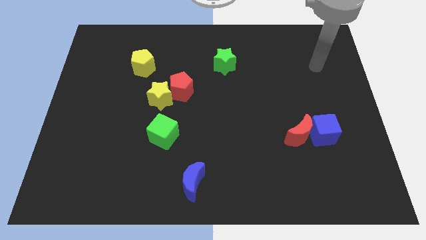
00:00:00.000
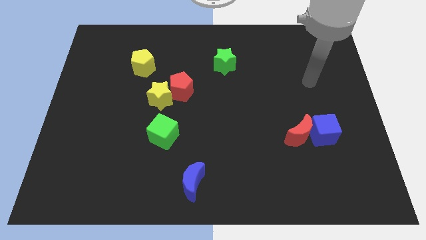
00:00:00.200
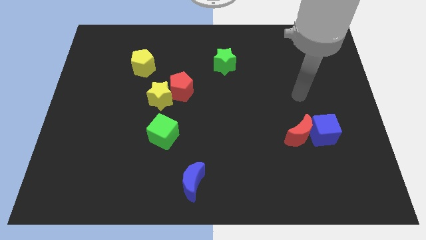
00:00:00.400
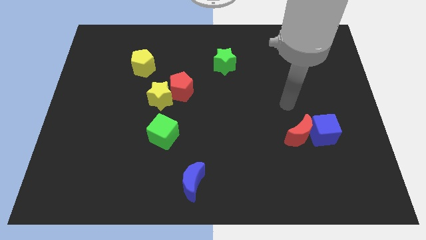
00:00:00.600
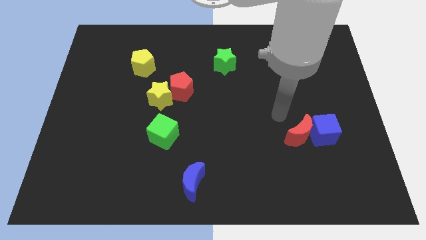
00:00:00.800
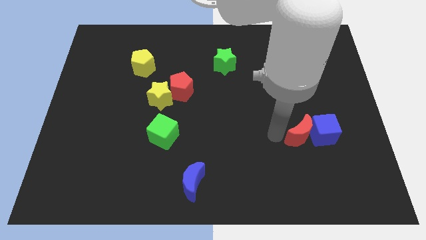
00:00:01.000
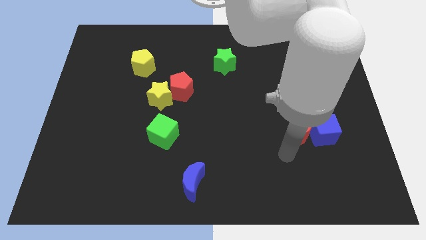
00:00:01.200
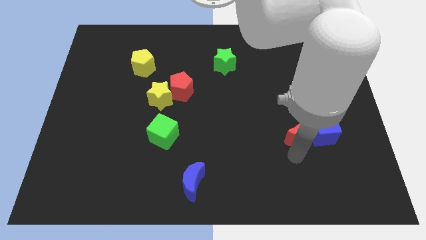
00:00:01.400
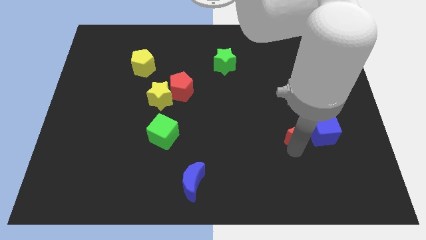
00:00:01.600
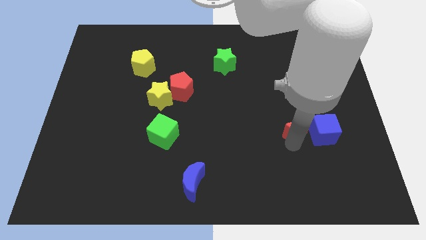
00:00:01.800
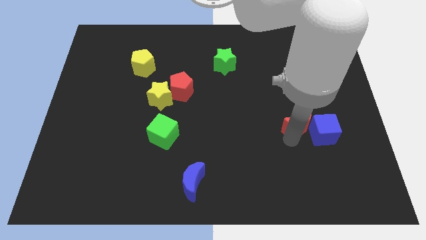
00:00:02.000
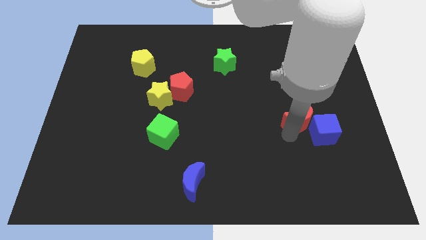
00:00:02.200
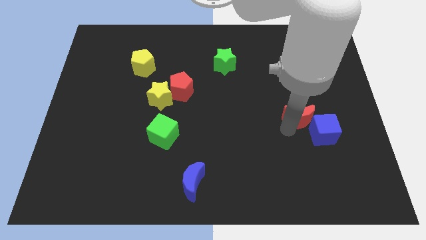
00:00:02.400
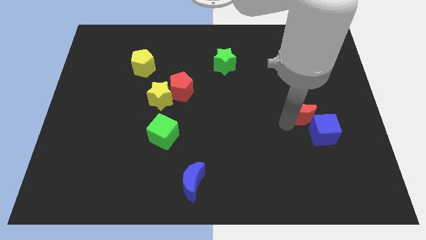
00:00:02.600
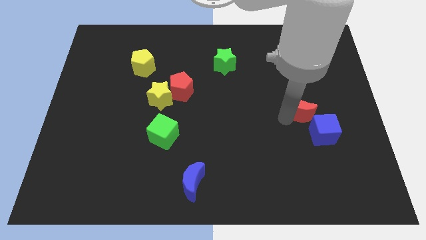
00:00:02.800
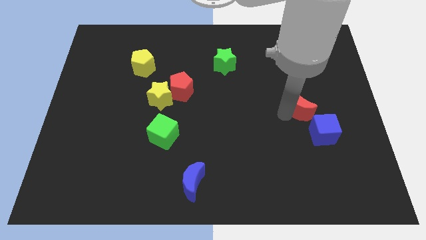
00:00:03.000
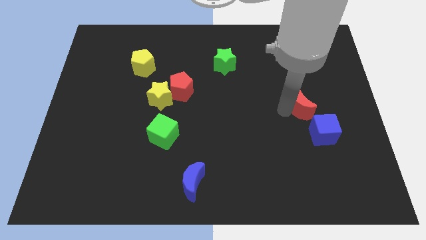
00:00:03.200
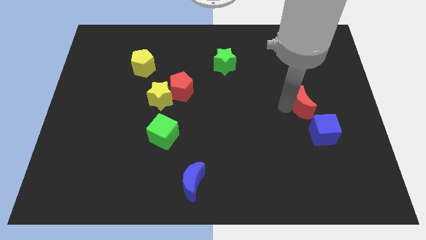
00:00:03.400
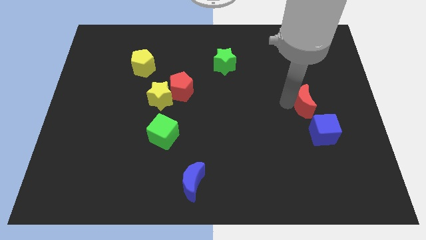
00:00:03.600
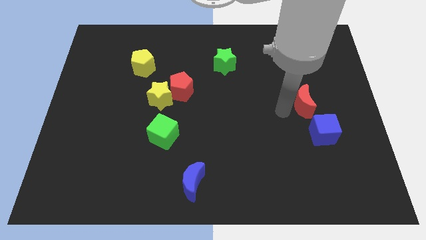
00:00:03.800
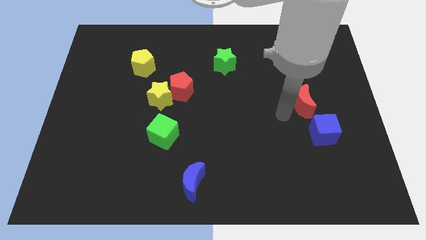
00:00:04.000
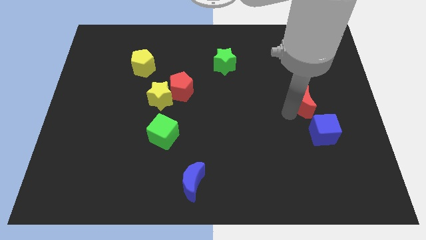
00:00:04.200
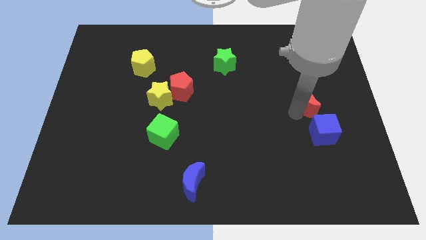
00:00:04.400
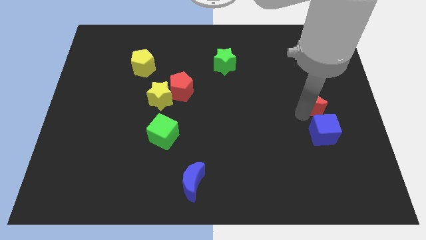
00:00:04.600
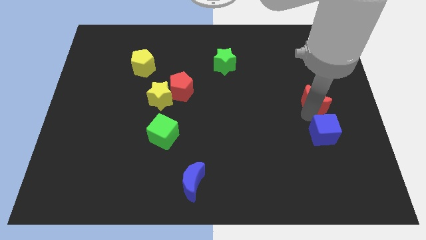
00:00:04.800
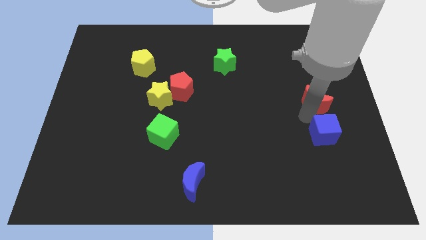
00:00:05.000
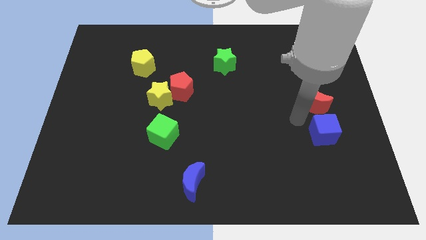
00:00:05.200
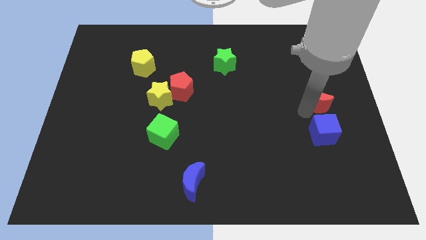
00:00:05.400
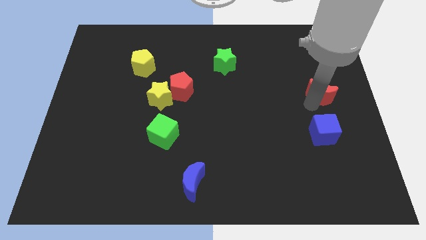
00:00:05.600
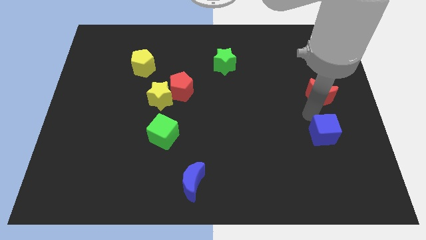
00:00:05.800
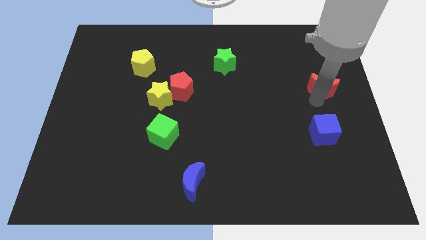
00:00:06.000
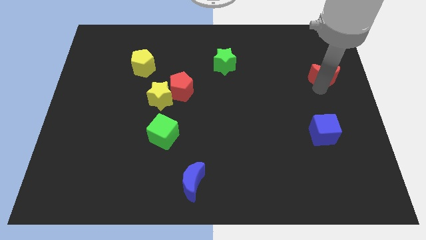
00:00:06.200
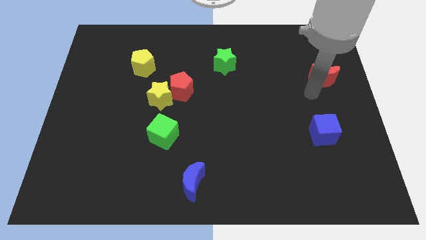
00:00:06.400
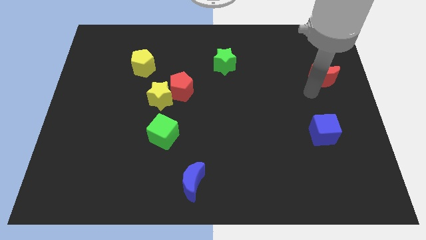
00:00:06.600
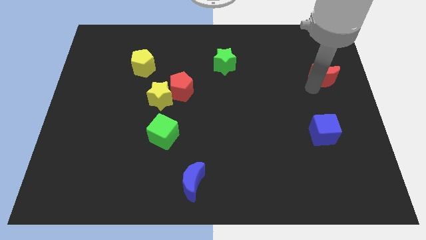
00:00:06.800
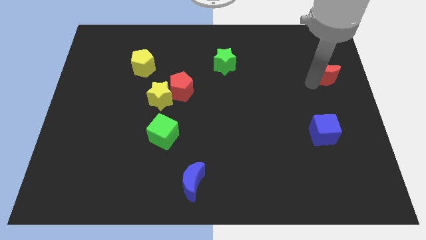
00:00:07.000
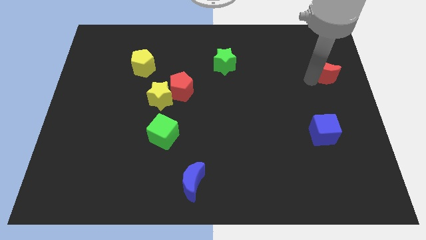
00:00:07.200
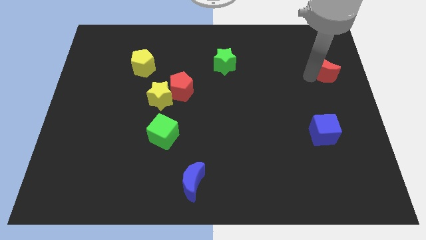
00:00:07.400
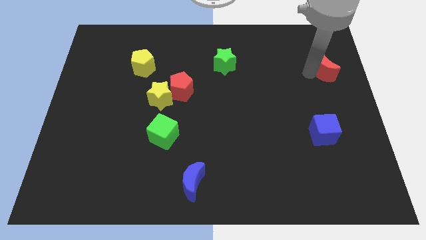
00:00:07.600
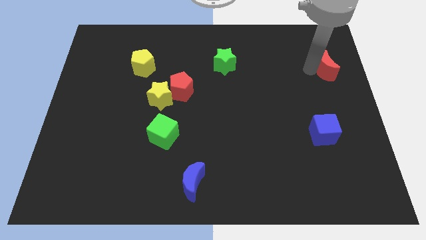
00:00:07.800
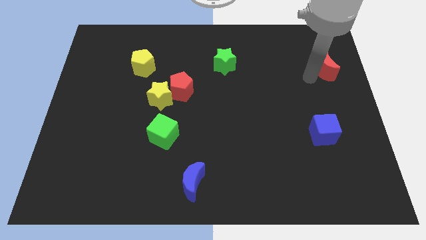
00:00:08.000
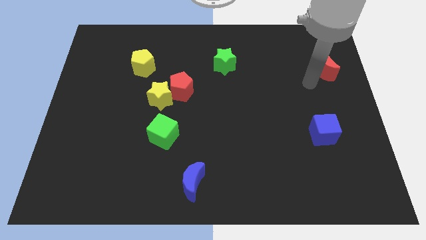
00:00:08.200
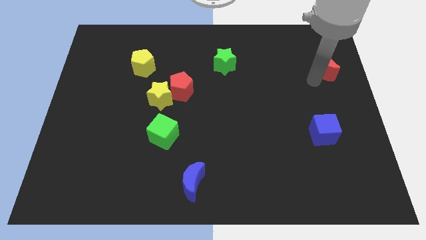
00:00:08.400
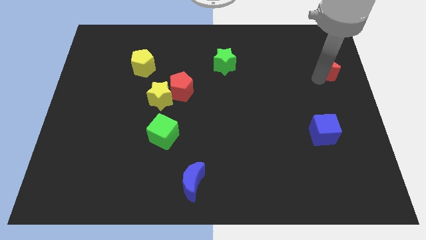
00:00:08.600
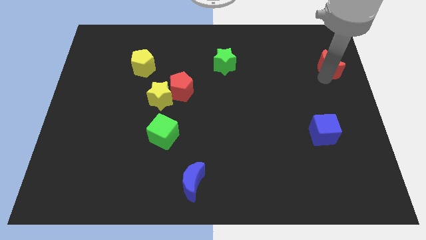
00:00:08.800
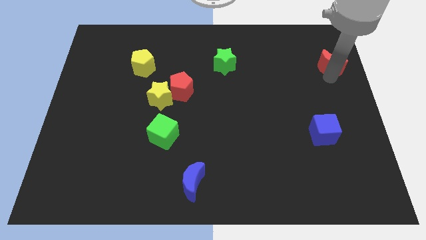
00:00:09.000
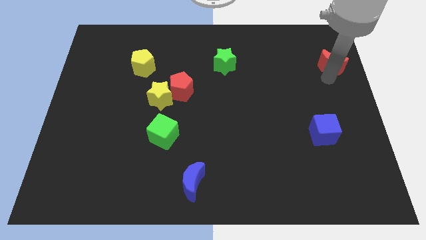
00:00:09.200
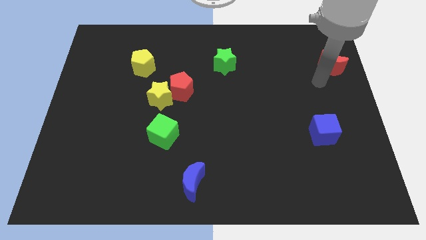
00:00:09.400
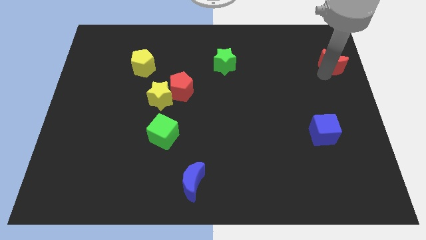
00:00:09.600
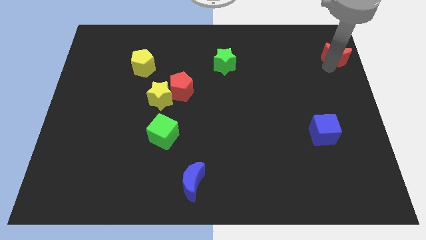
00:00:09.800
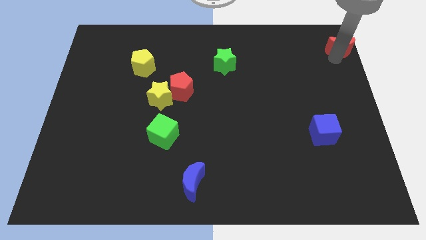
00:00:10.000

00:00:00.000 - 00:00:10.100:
put the red moon to the top right of the board

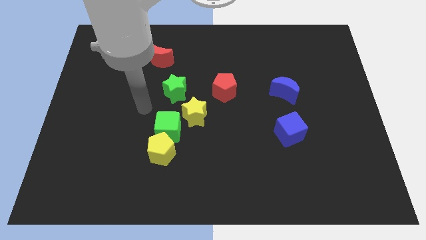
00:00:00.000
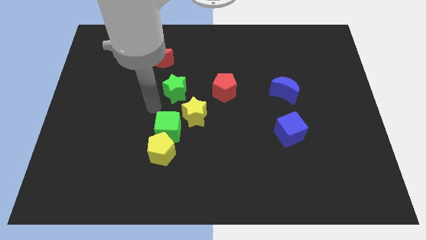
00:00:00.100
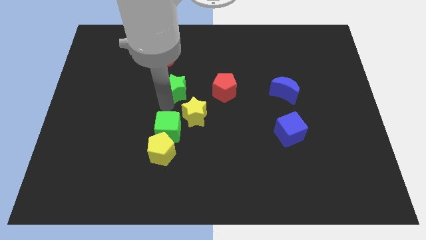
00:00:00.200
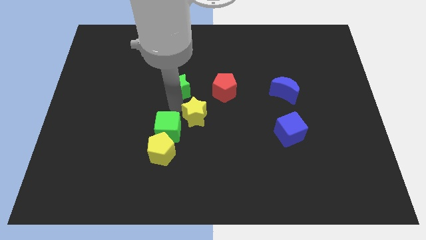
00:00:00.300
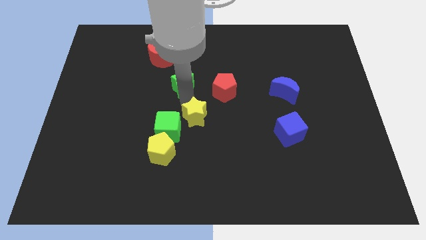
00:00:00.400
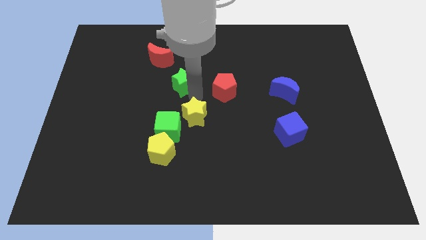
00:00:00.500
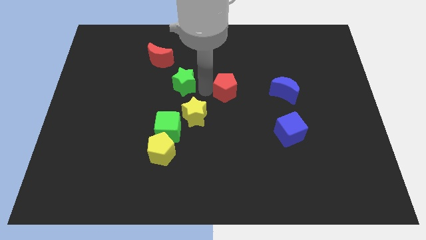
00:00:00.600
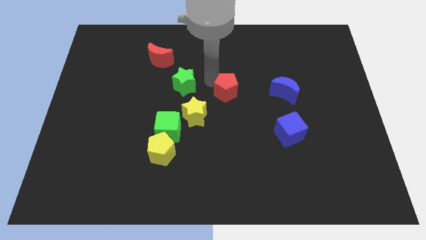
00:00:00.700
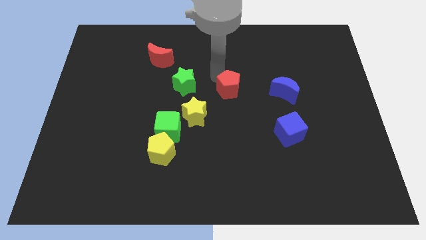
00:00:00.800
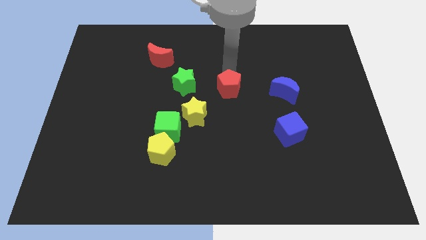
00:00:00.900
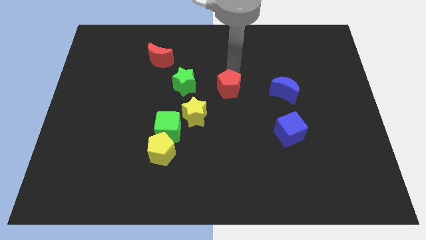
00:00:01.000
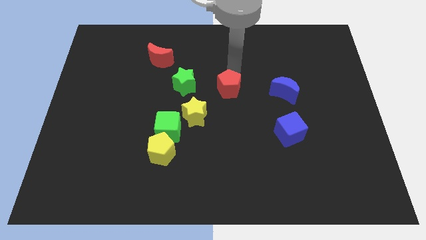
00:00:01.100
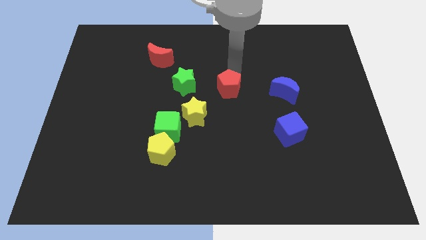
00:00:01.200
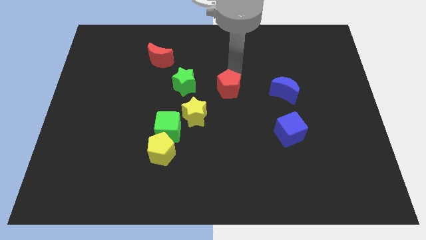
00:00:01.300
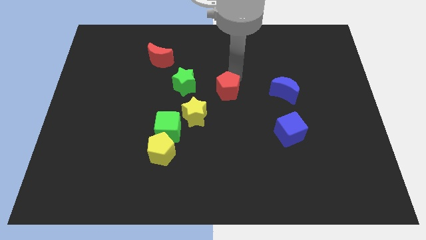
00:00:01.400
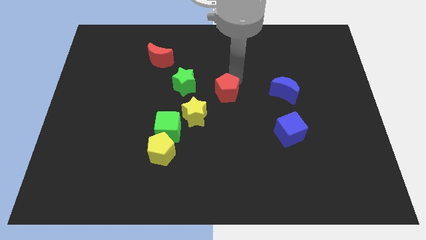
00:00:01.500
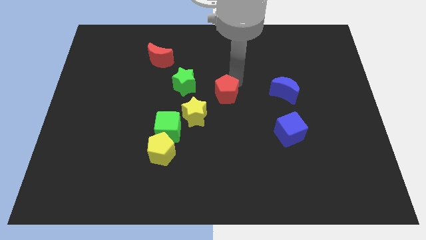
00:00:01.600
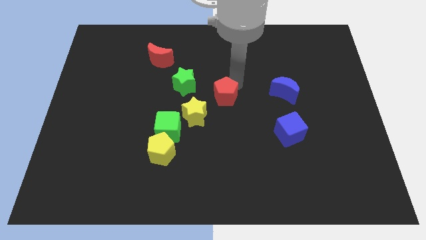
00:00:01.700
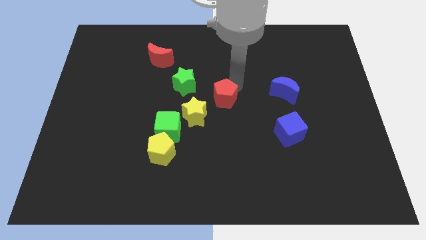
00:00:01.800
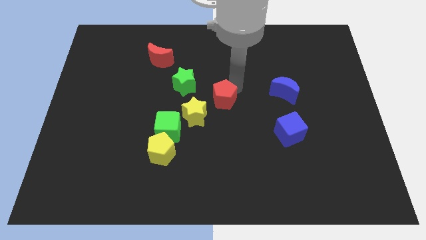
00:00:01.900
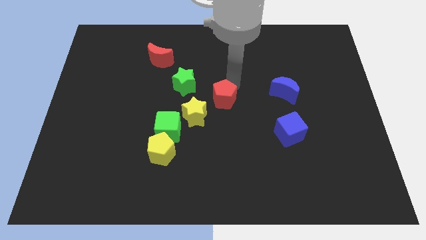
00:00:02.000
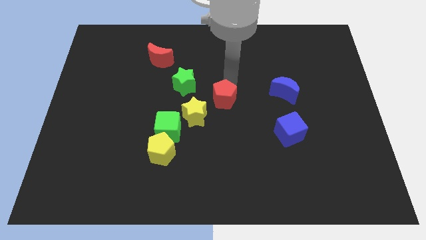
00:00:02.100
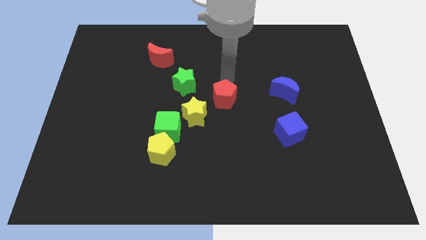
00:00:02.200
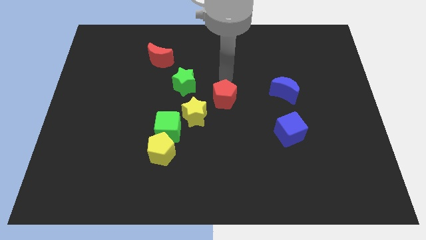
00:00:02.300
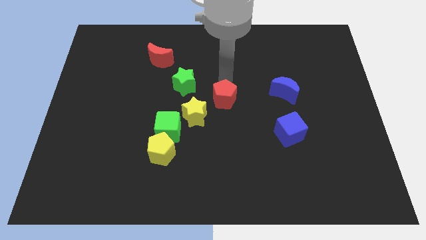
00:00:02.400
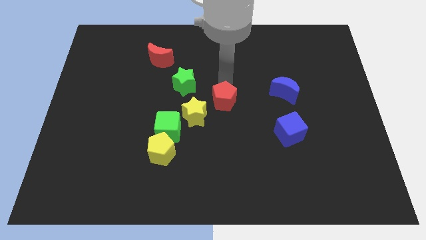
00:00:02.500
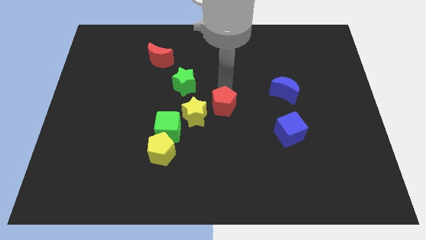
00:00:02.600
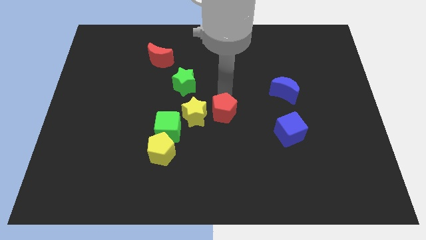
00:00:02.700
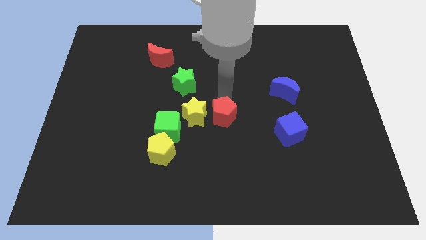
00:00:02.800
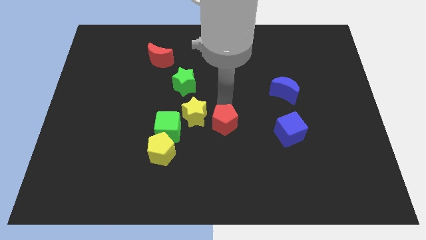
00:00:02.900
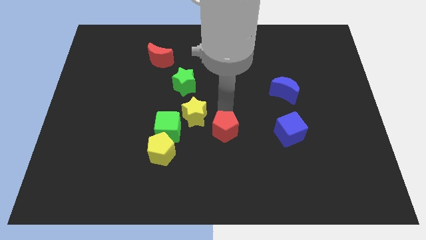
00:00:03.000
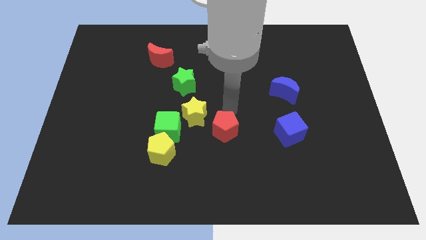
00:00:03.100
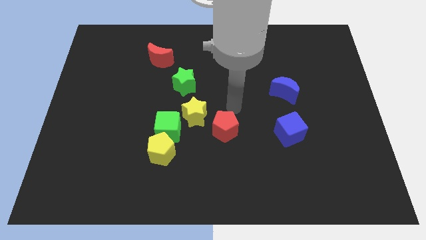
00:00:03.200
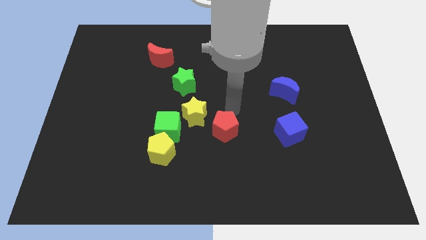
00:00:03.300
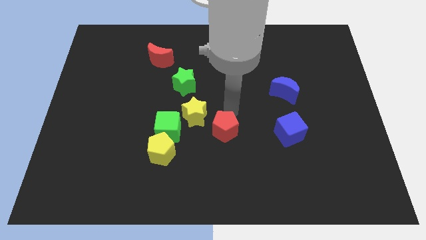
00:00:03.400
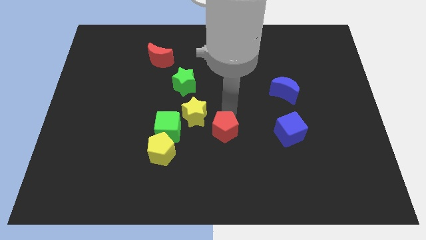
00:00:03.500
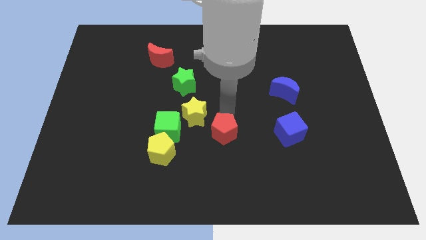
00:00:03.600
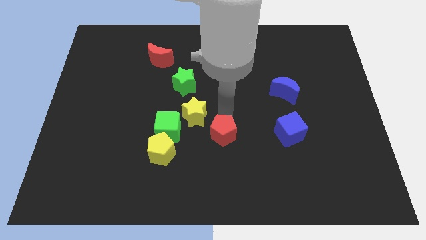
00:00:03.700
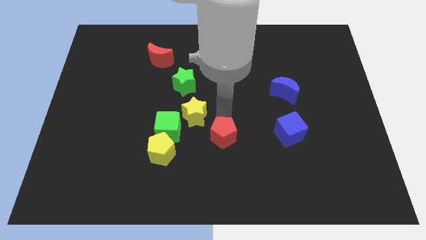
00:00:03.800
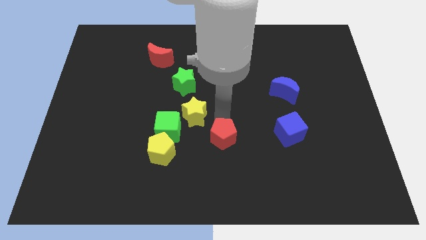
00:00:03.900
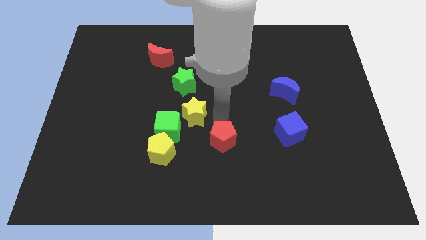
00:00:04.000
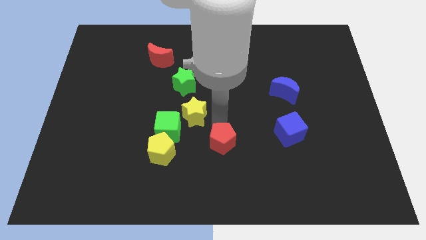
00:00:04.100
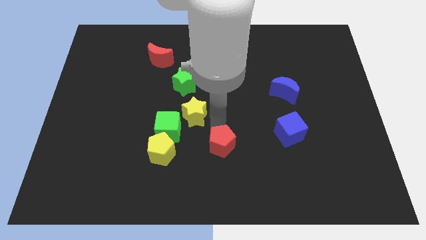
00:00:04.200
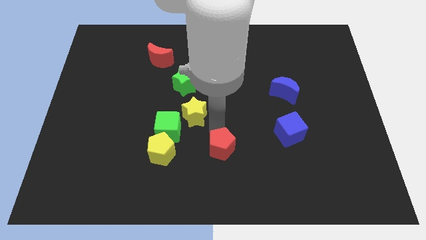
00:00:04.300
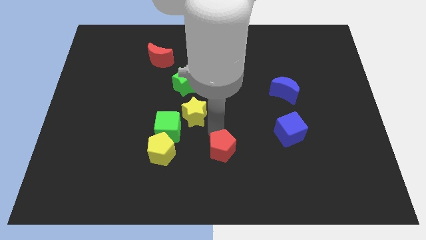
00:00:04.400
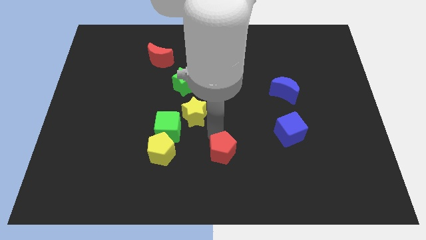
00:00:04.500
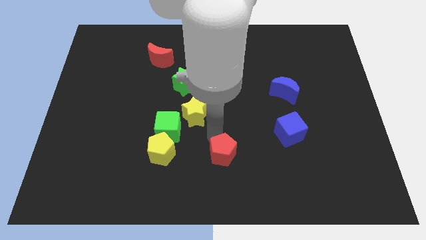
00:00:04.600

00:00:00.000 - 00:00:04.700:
slide the red pentagon to the bottom
